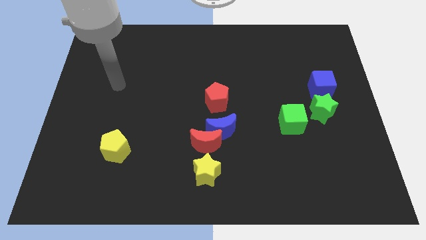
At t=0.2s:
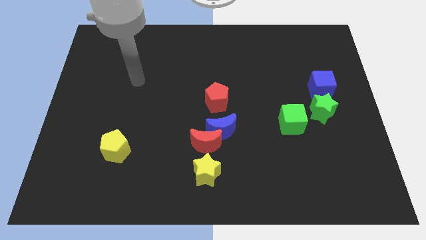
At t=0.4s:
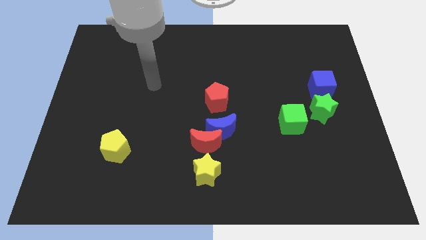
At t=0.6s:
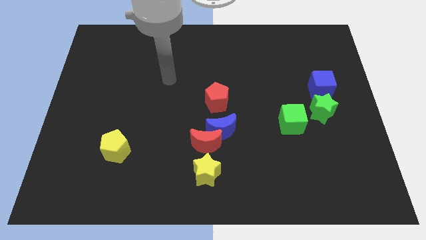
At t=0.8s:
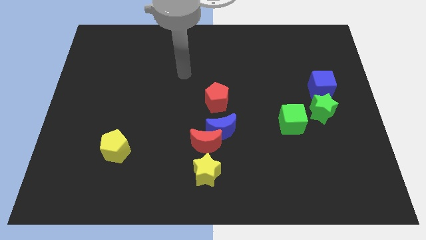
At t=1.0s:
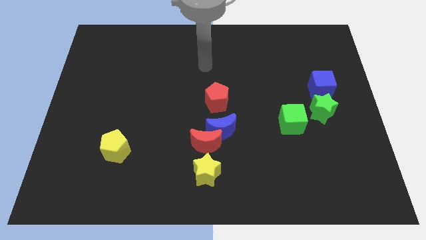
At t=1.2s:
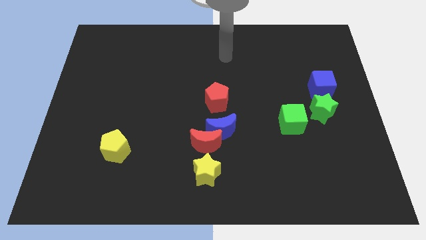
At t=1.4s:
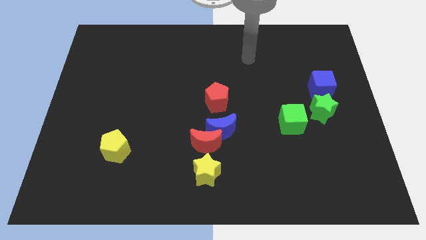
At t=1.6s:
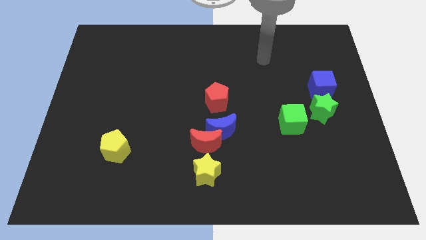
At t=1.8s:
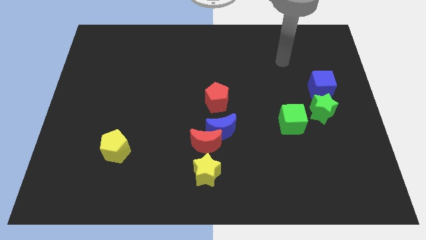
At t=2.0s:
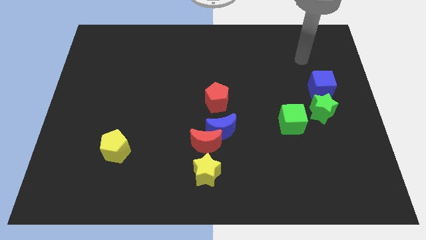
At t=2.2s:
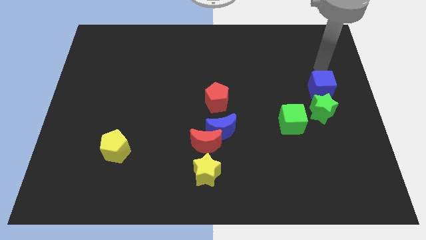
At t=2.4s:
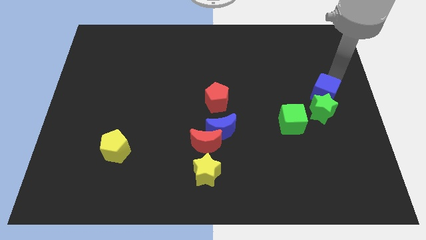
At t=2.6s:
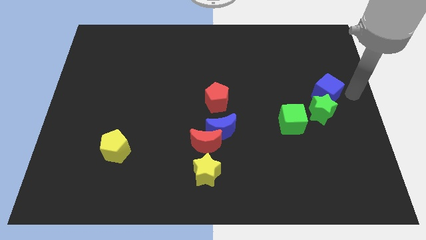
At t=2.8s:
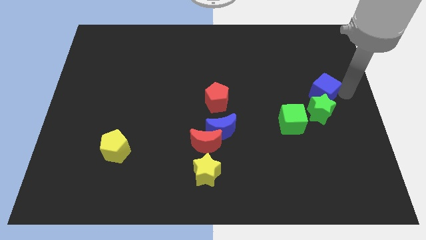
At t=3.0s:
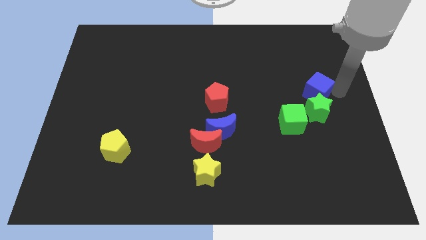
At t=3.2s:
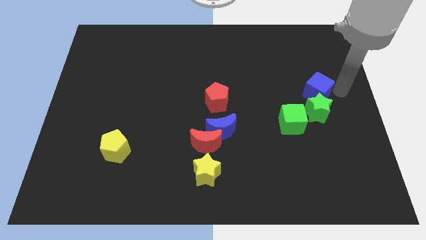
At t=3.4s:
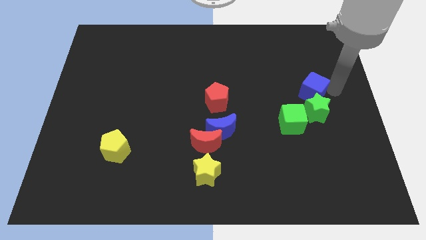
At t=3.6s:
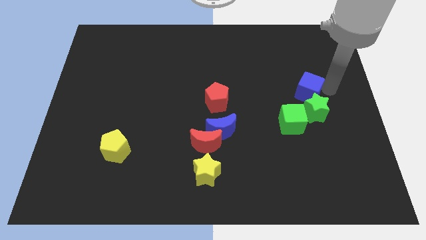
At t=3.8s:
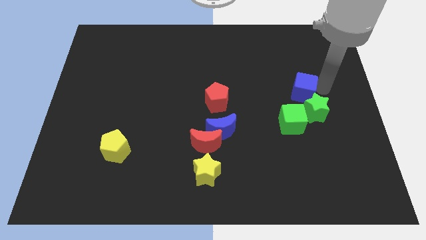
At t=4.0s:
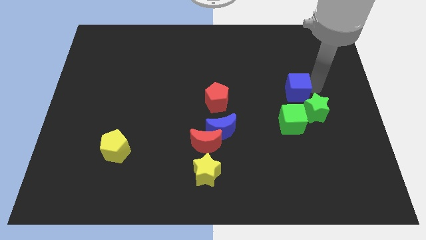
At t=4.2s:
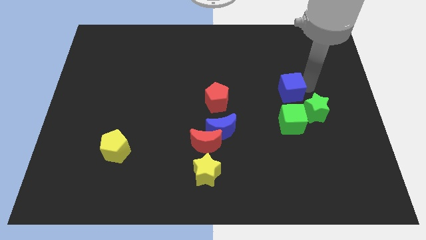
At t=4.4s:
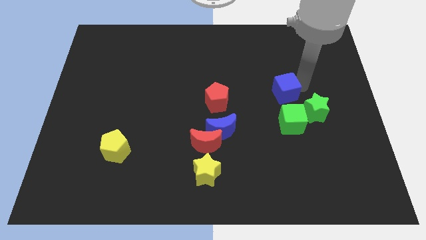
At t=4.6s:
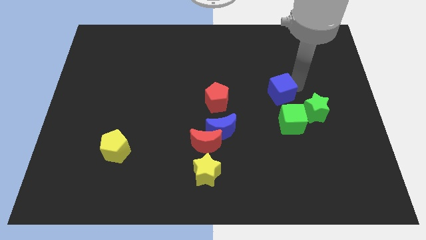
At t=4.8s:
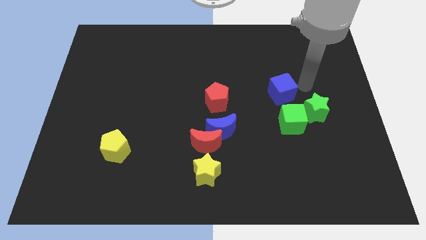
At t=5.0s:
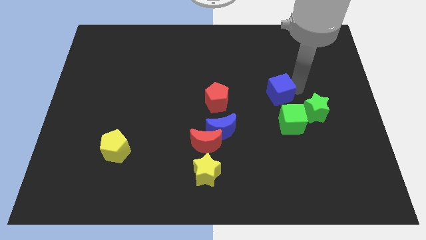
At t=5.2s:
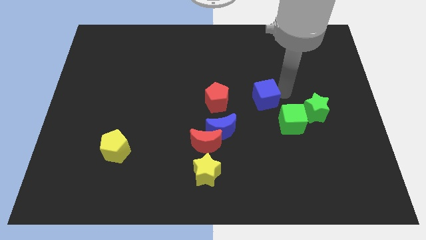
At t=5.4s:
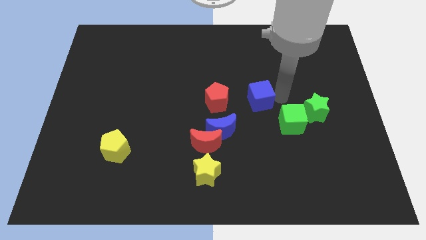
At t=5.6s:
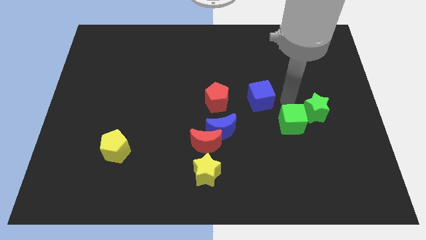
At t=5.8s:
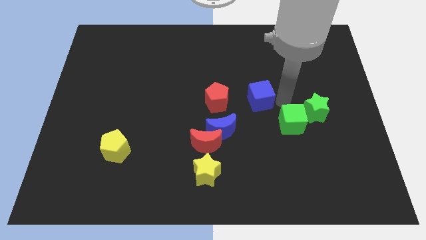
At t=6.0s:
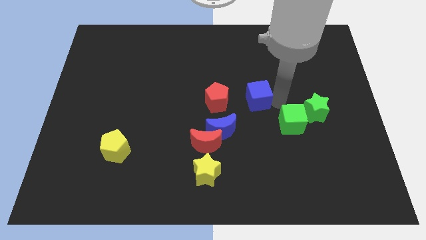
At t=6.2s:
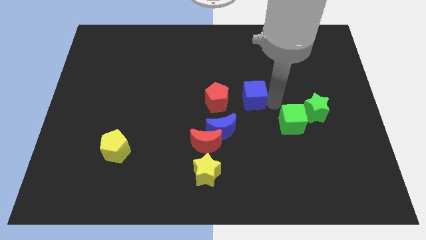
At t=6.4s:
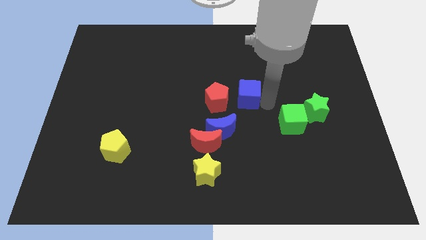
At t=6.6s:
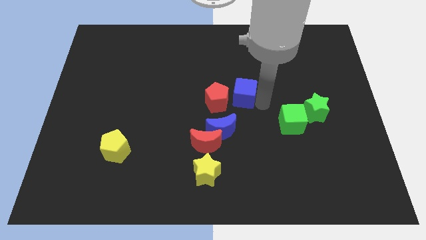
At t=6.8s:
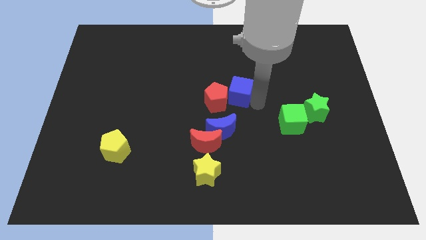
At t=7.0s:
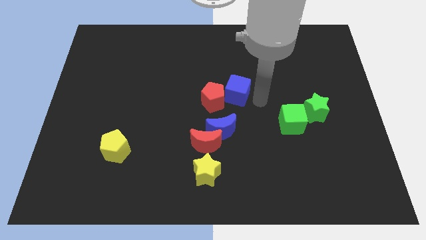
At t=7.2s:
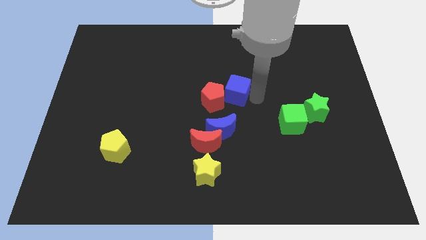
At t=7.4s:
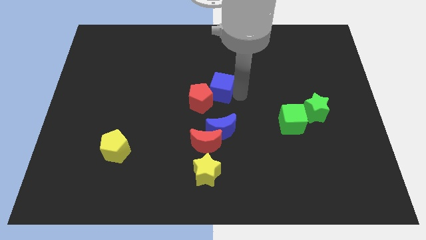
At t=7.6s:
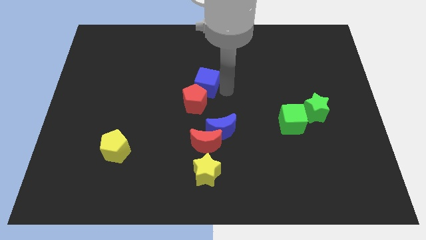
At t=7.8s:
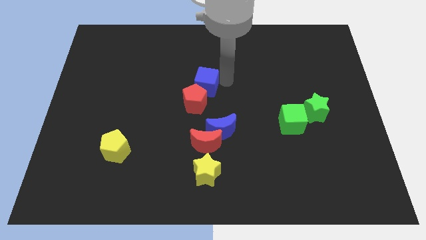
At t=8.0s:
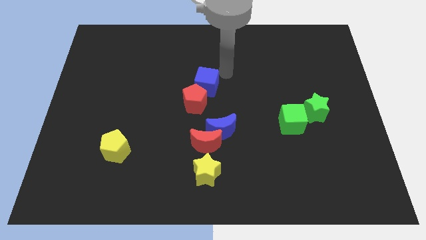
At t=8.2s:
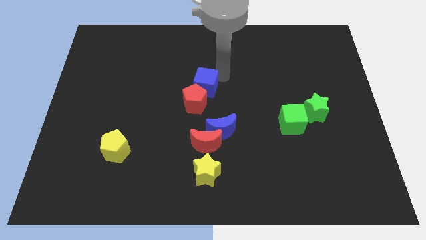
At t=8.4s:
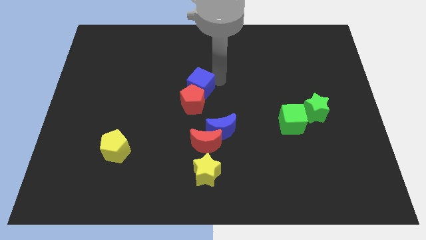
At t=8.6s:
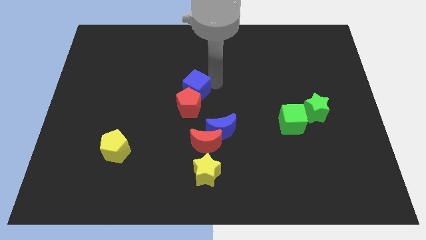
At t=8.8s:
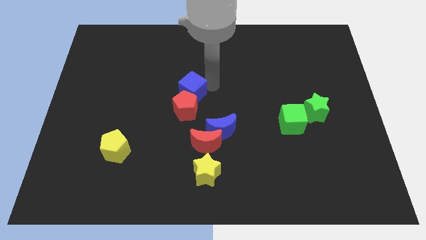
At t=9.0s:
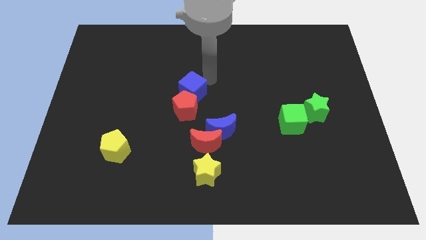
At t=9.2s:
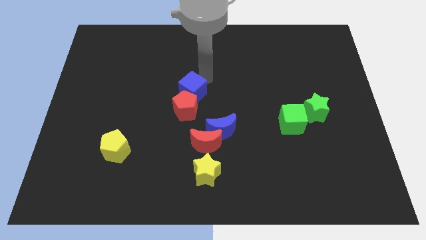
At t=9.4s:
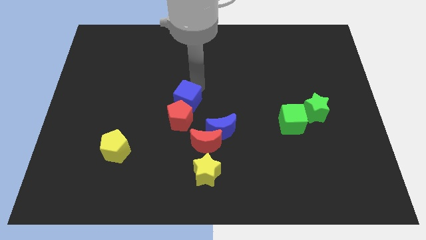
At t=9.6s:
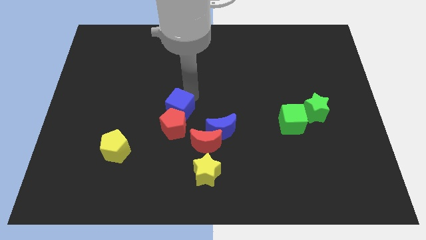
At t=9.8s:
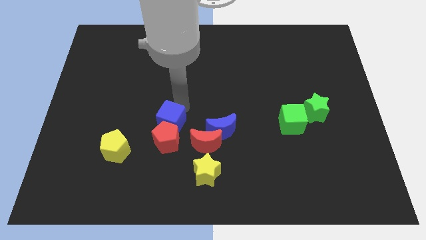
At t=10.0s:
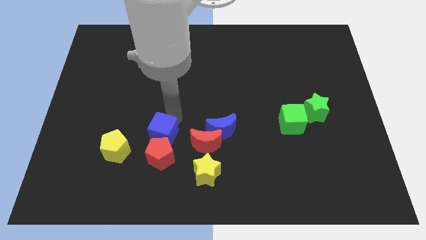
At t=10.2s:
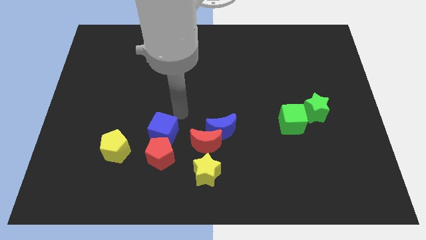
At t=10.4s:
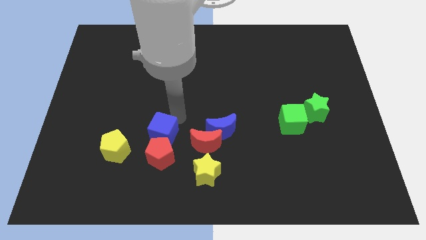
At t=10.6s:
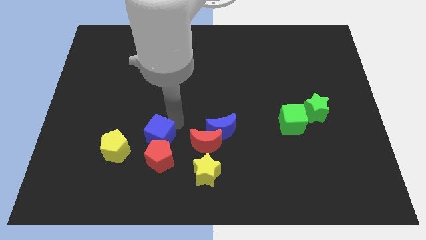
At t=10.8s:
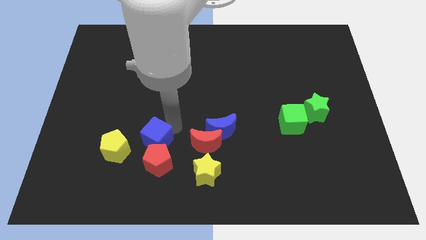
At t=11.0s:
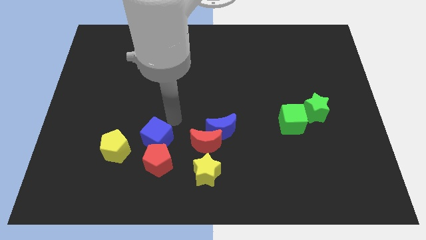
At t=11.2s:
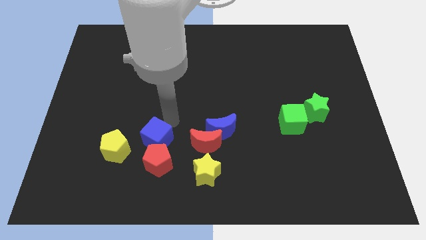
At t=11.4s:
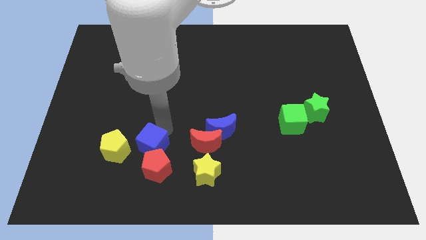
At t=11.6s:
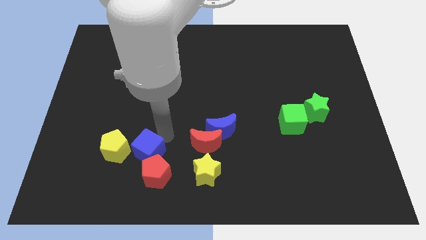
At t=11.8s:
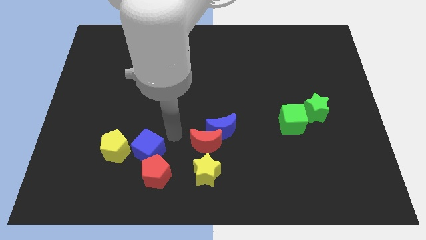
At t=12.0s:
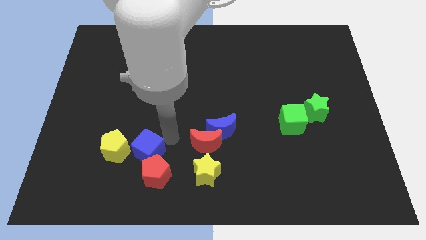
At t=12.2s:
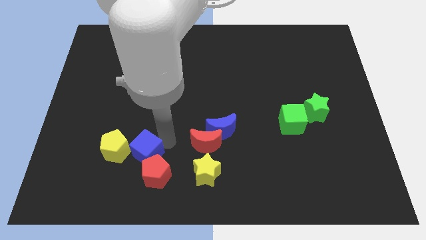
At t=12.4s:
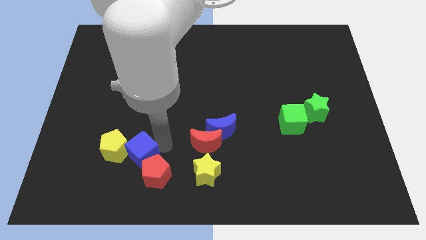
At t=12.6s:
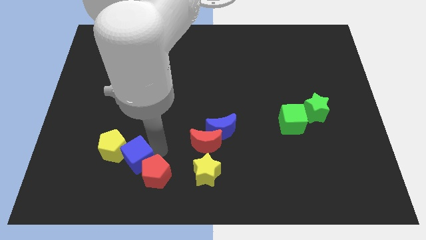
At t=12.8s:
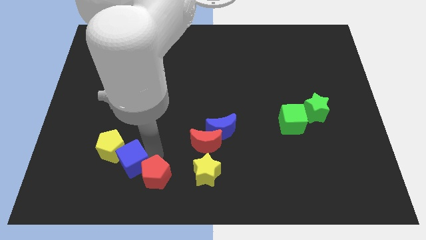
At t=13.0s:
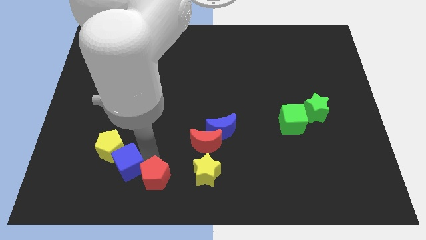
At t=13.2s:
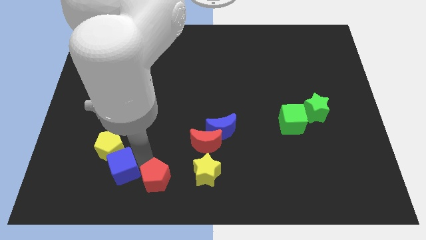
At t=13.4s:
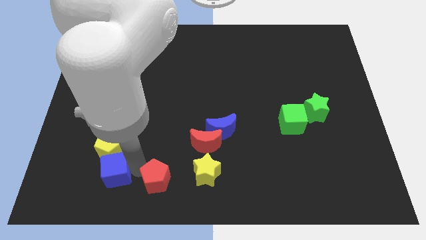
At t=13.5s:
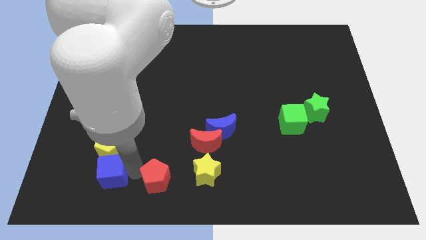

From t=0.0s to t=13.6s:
push the blue cube to the bottom left of the yellow pentagon

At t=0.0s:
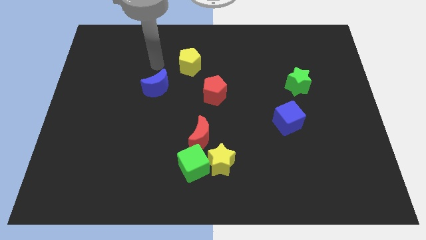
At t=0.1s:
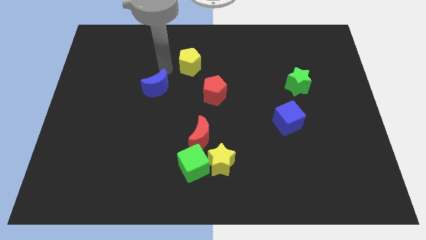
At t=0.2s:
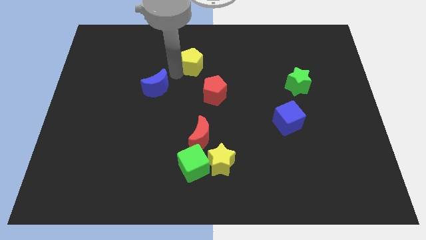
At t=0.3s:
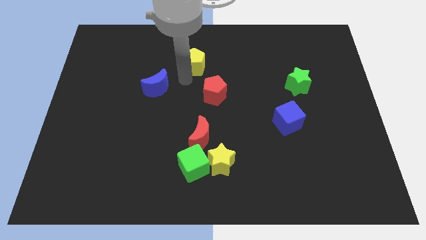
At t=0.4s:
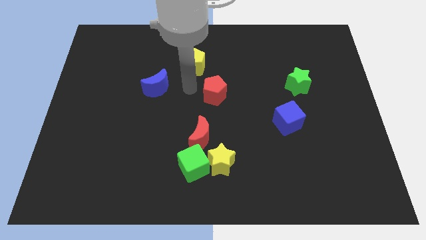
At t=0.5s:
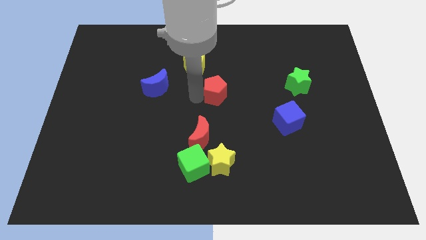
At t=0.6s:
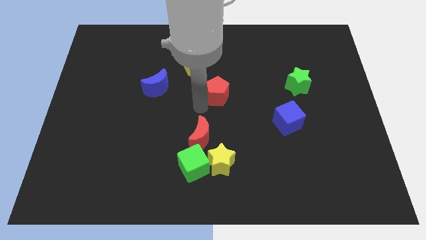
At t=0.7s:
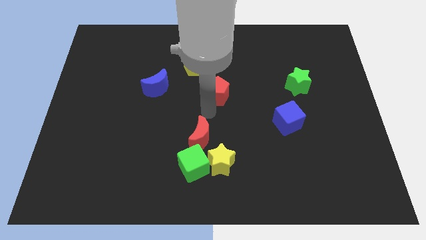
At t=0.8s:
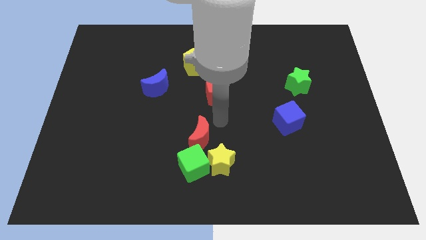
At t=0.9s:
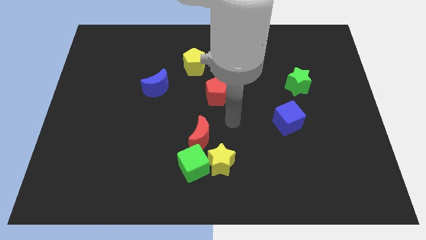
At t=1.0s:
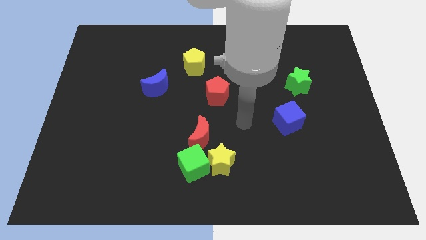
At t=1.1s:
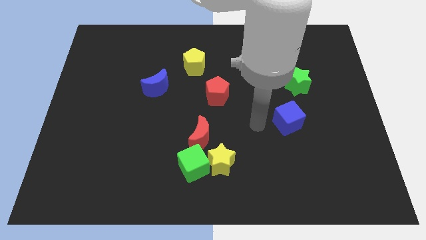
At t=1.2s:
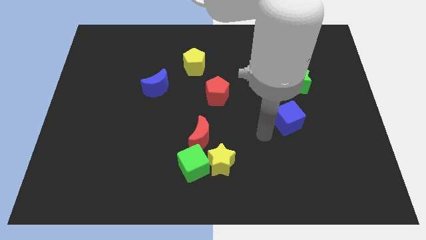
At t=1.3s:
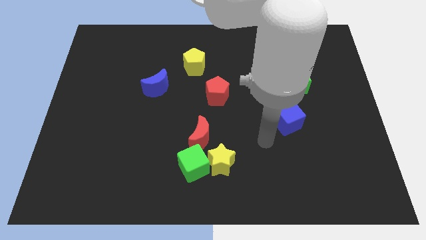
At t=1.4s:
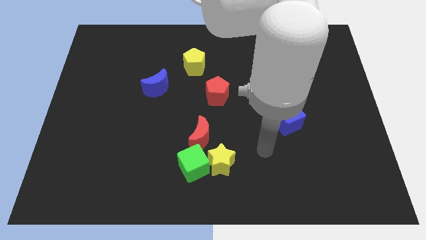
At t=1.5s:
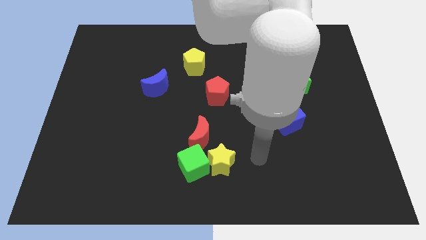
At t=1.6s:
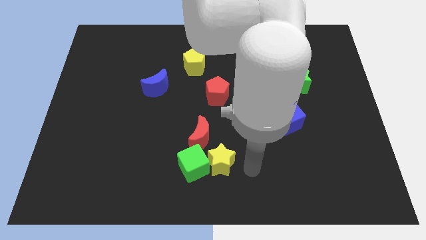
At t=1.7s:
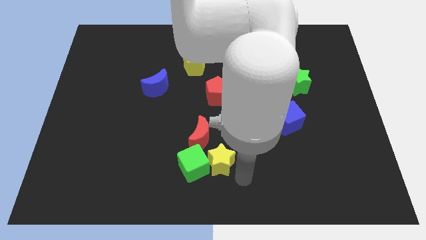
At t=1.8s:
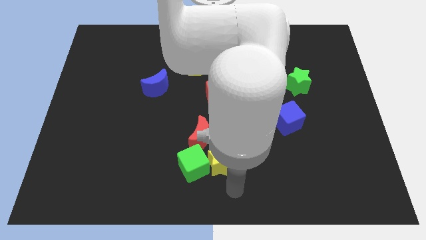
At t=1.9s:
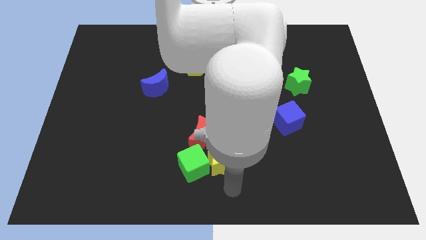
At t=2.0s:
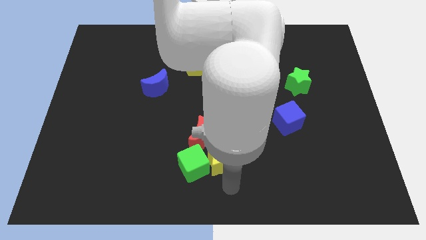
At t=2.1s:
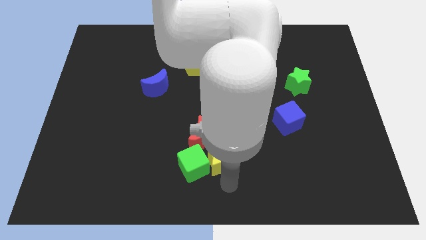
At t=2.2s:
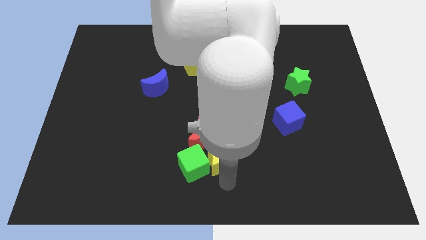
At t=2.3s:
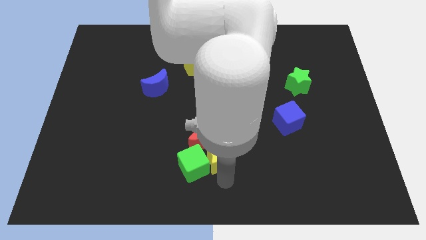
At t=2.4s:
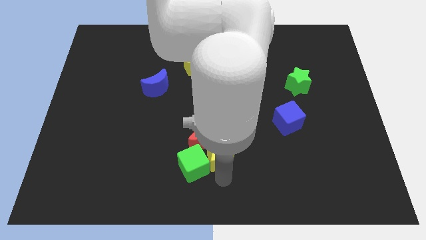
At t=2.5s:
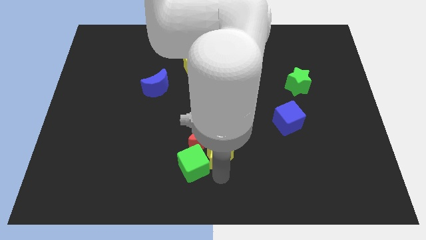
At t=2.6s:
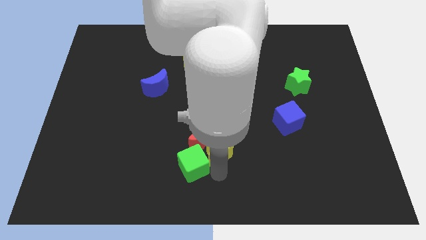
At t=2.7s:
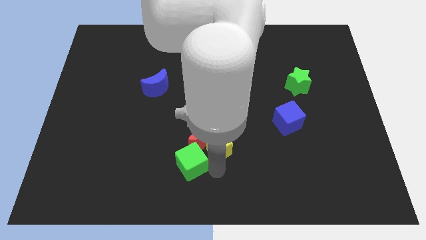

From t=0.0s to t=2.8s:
slide the yellow star below the red pentagon
